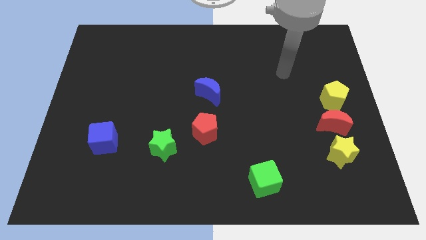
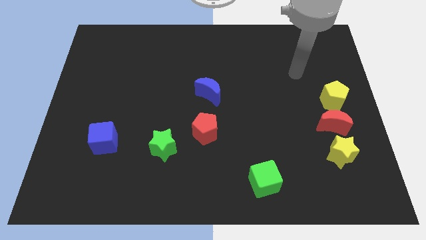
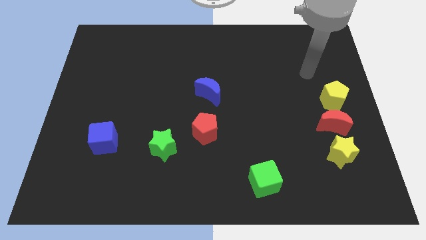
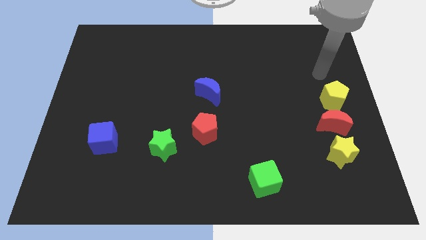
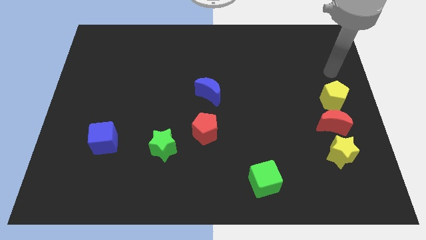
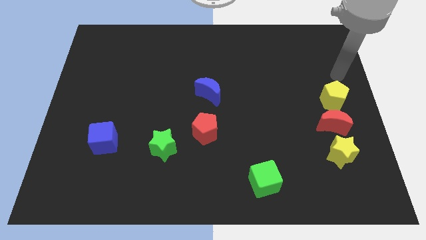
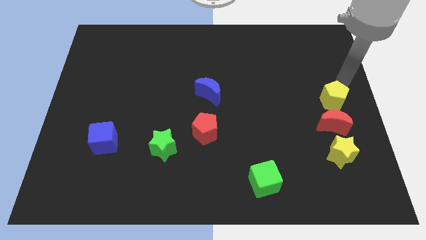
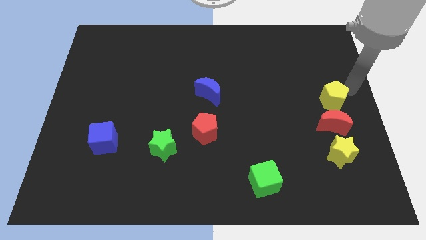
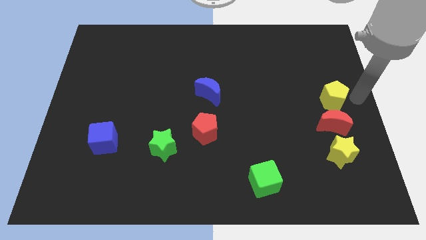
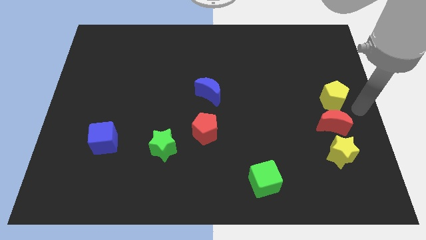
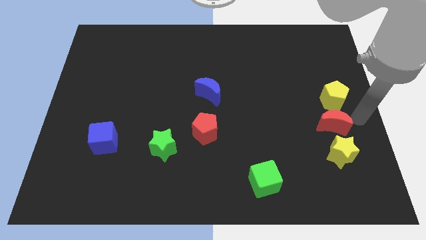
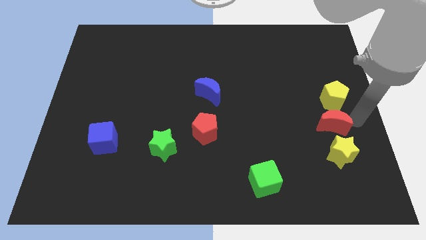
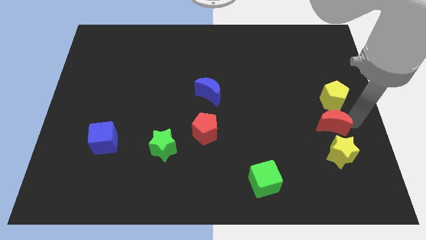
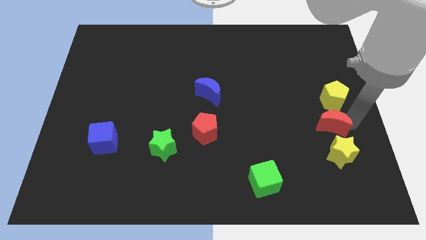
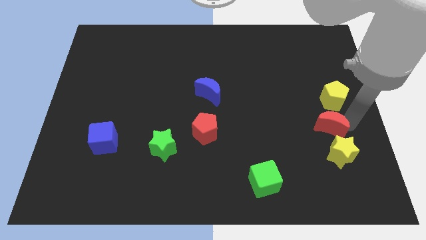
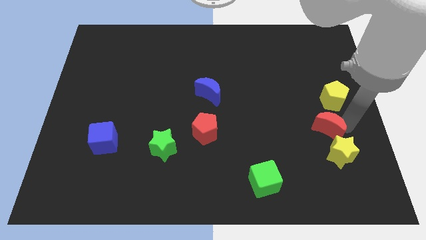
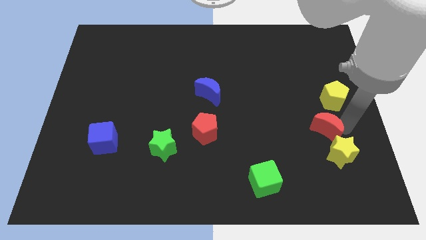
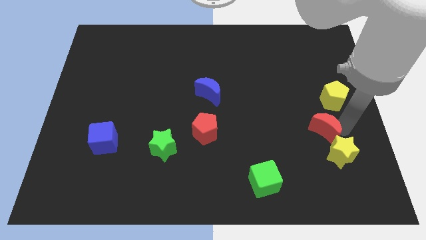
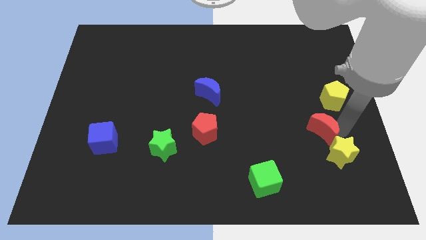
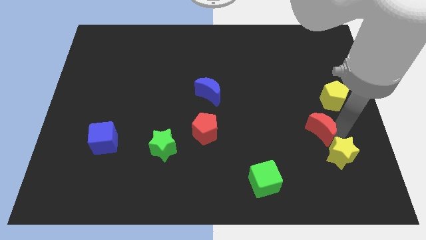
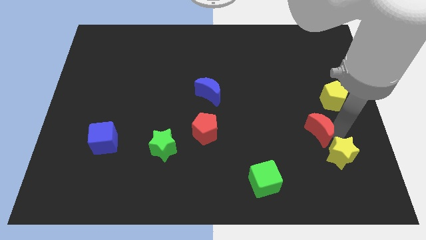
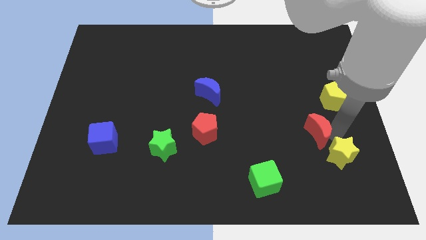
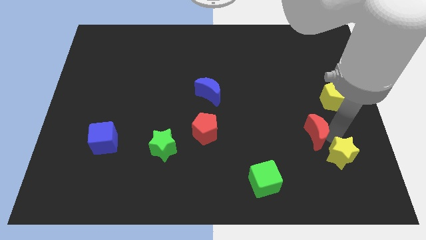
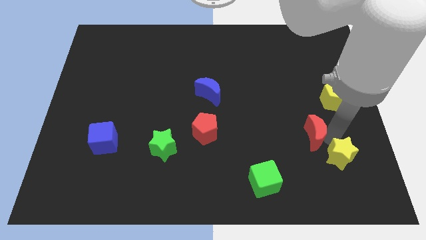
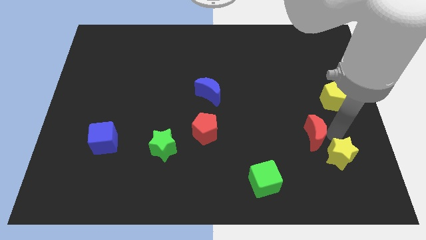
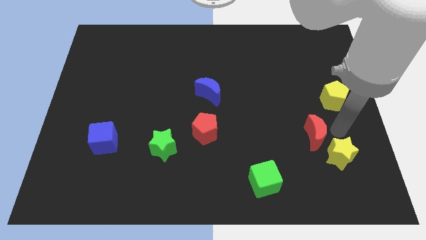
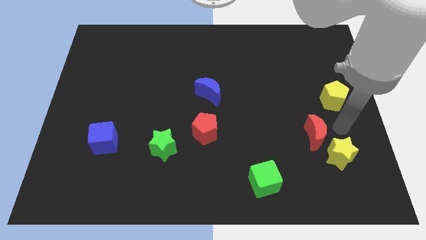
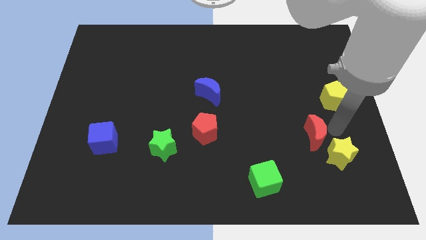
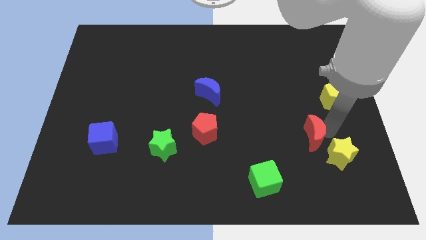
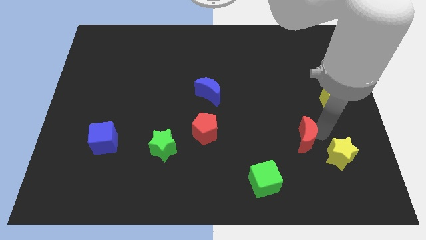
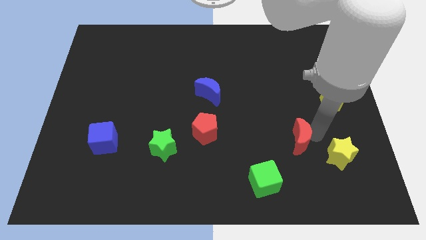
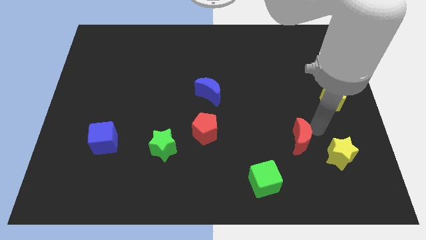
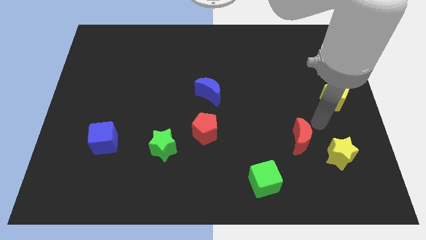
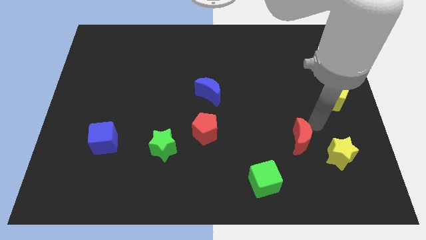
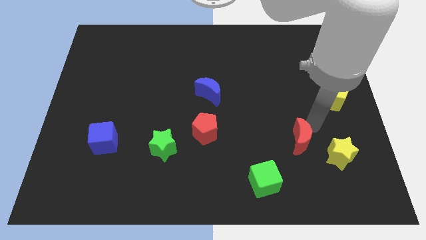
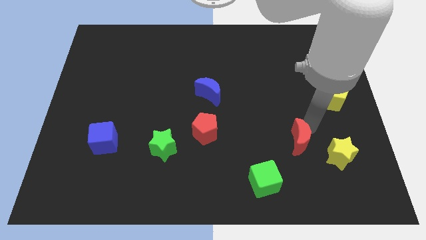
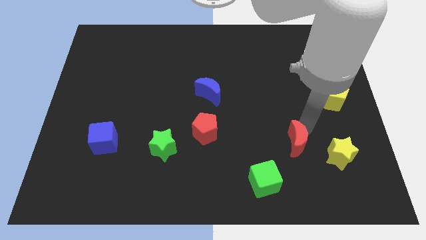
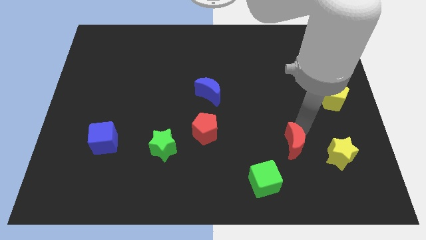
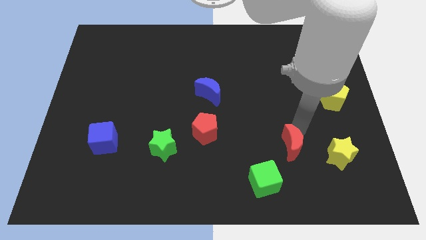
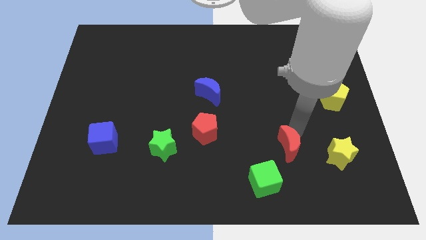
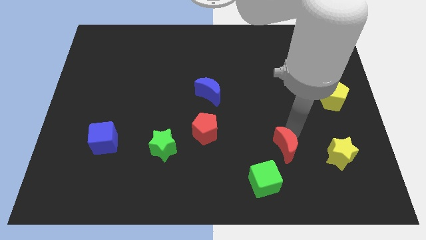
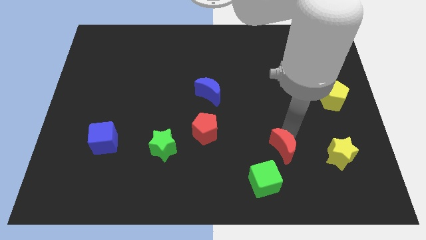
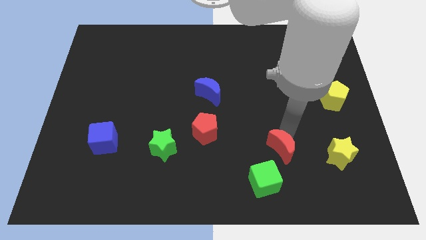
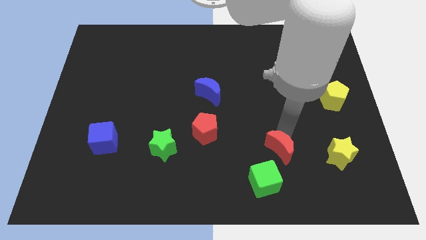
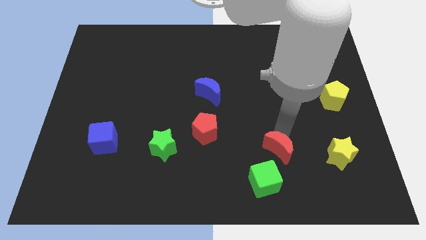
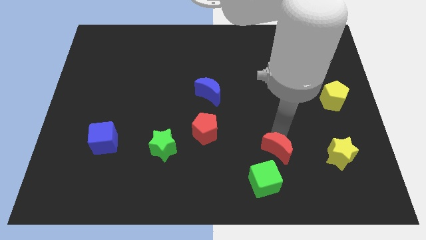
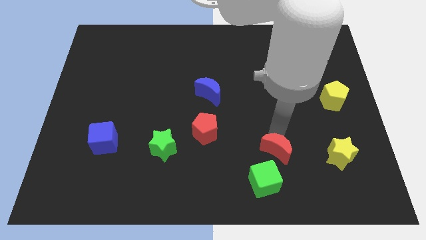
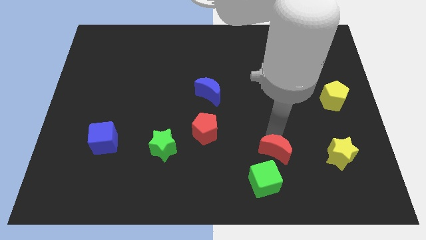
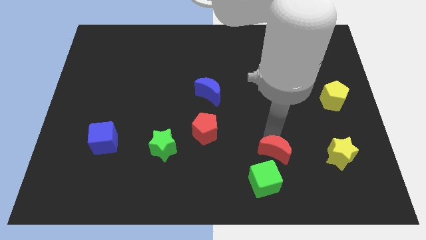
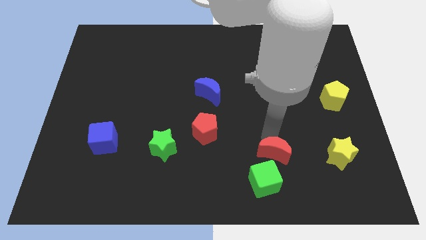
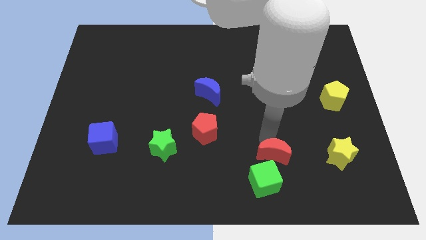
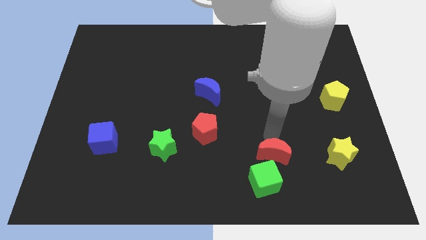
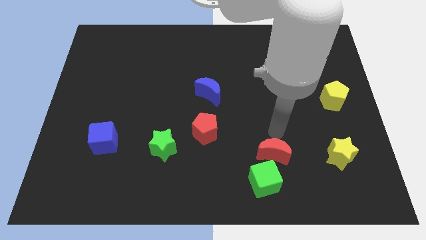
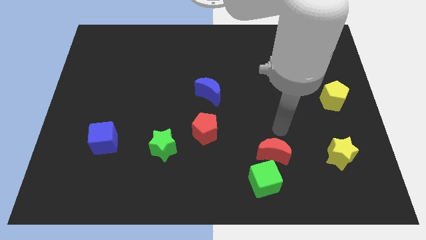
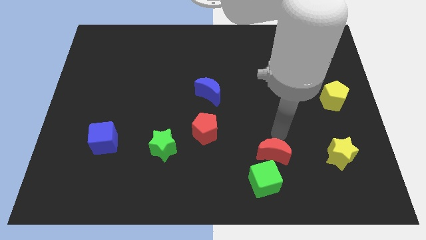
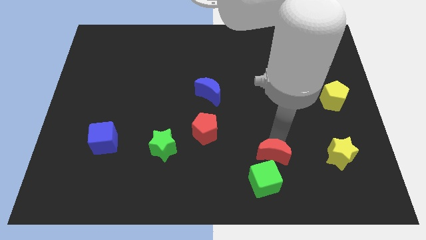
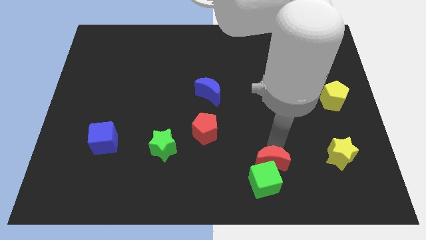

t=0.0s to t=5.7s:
move the red moon next to the green cube

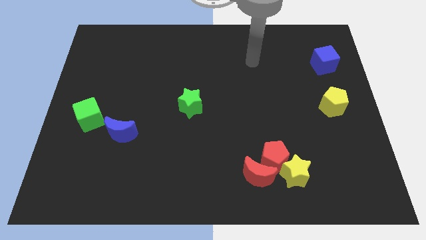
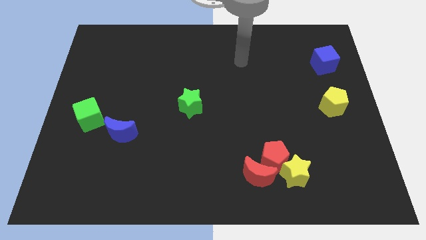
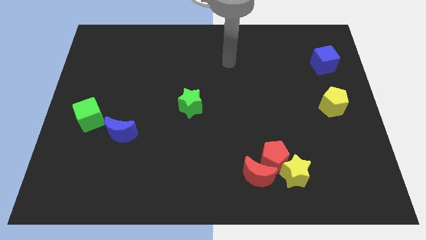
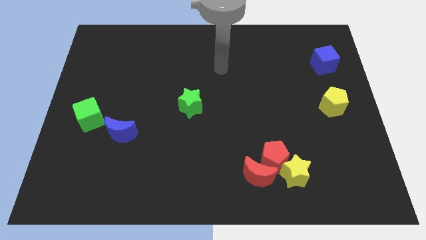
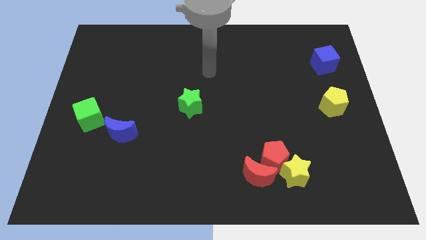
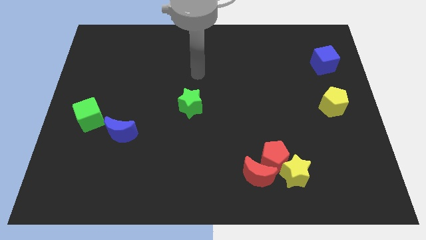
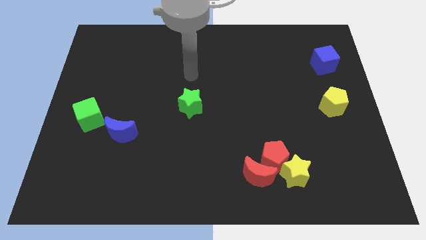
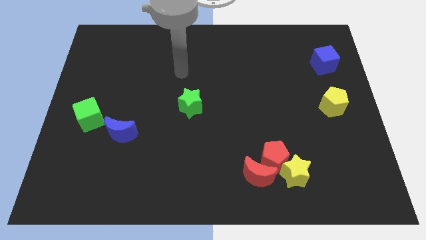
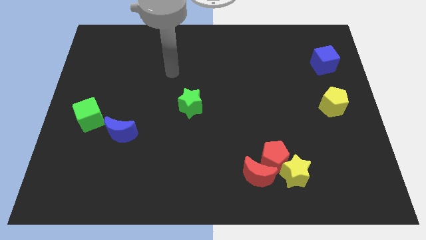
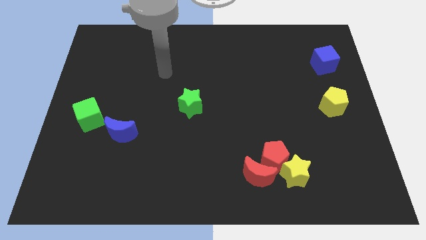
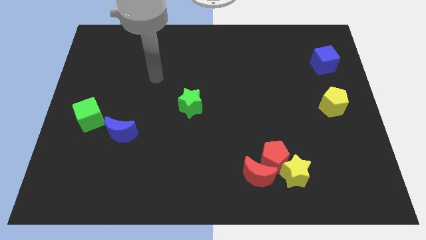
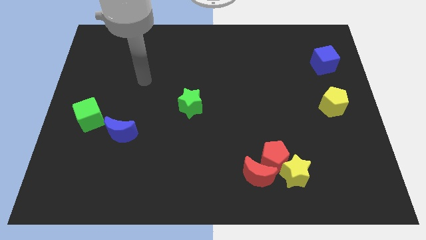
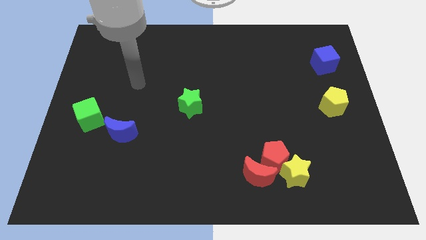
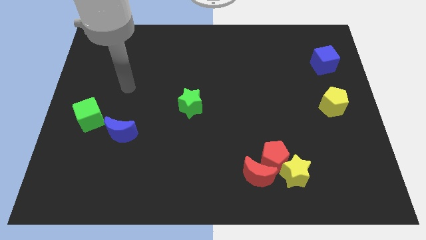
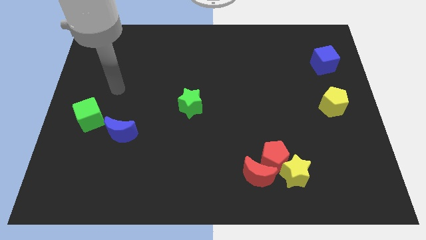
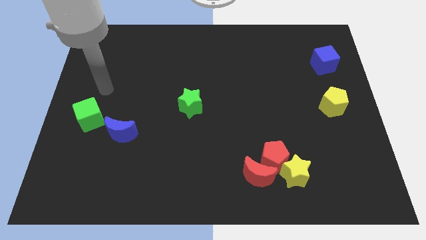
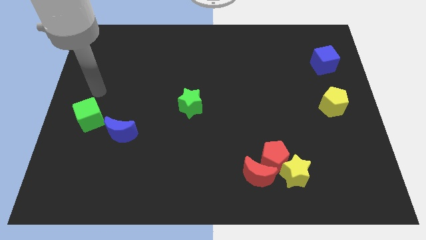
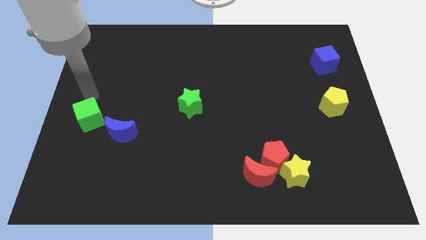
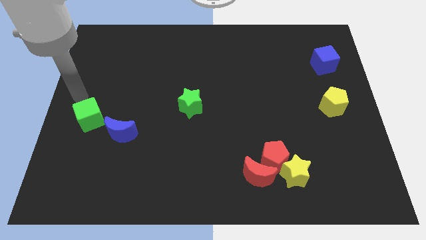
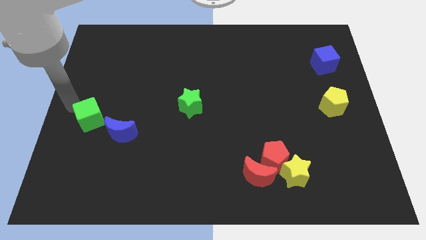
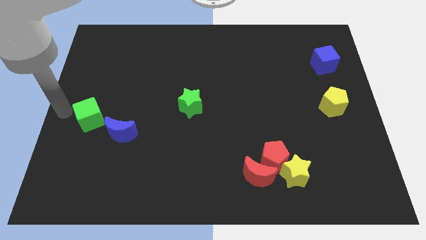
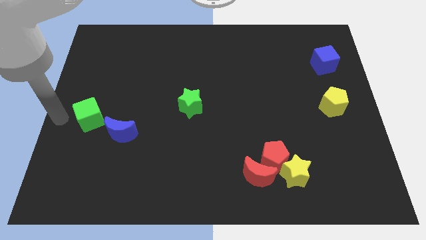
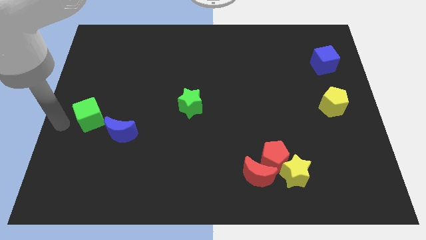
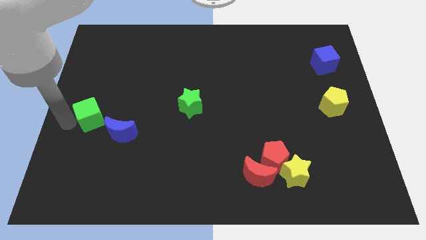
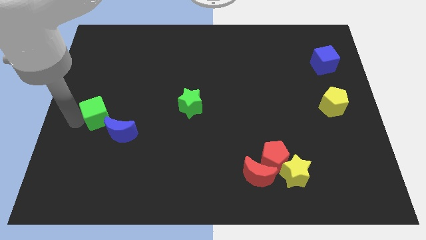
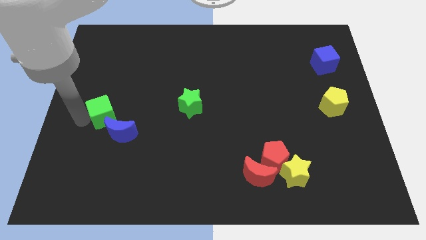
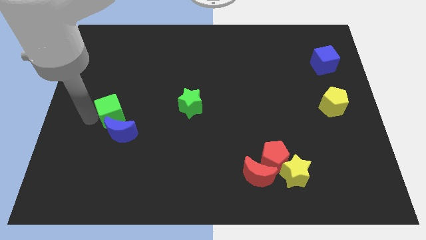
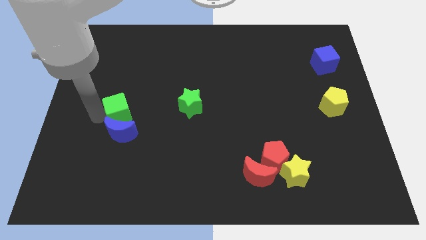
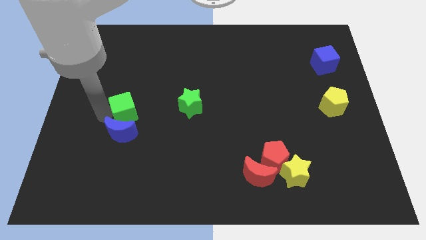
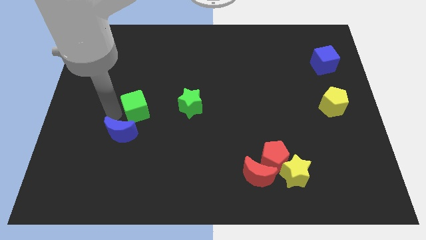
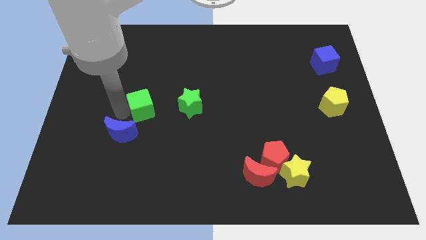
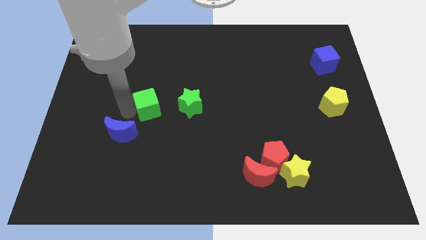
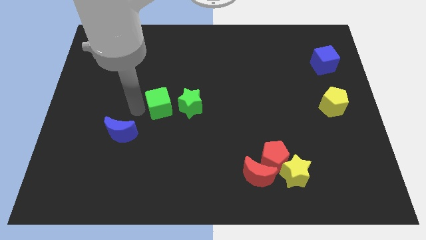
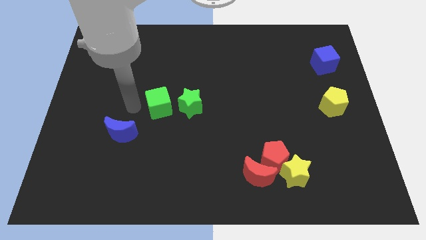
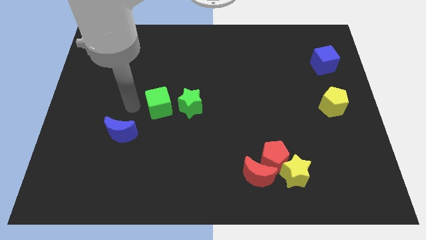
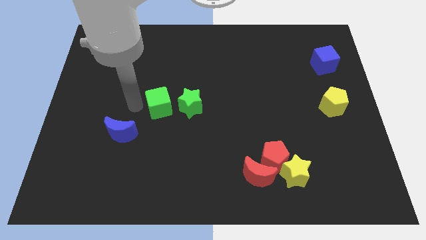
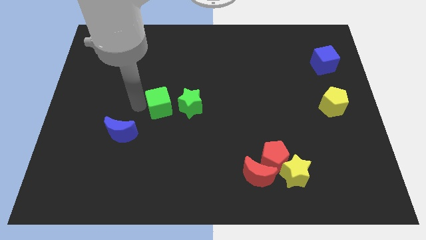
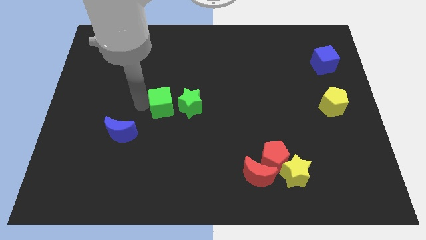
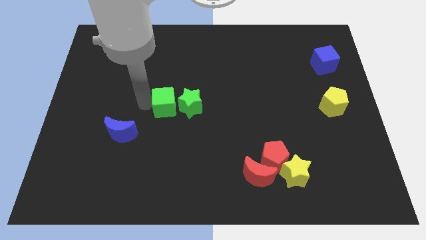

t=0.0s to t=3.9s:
move the green cube next to the green star
